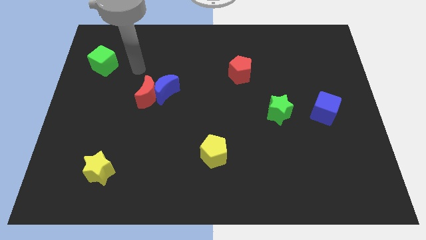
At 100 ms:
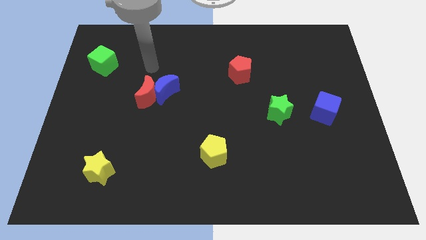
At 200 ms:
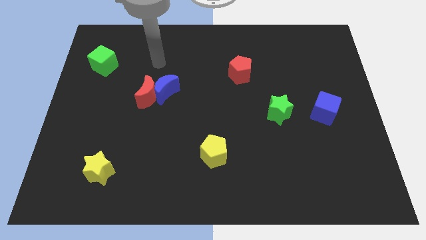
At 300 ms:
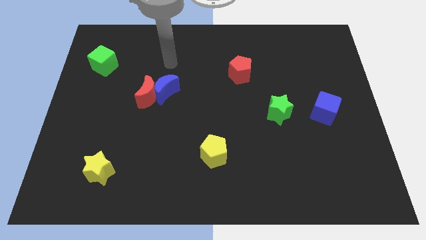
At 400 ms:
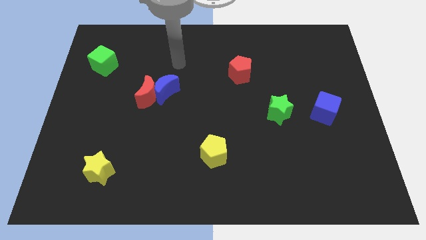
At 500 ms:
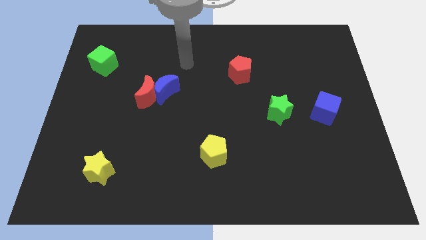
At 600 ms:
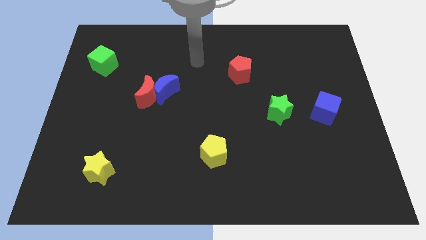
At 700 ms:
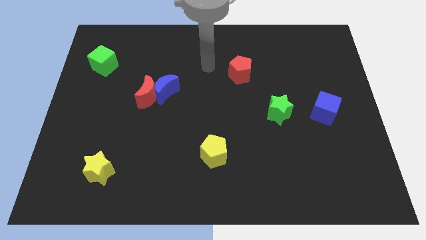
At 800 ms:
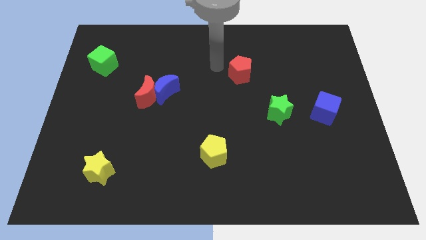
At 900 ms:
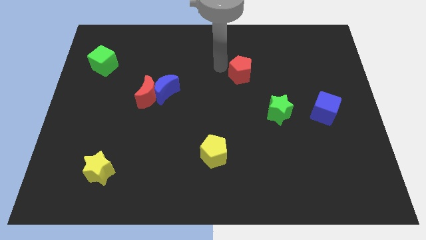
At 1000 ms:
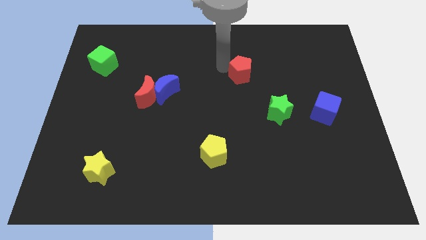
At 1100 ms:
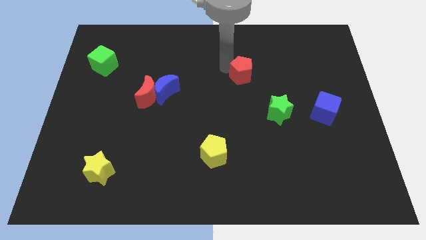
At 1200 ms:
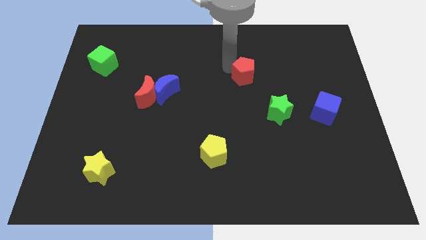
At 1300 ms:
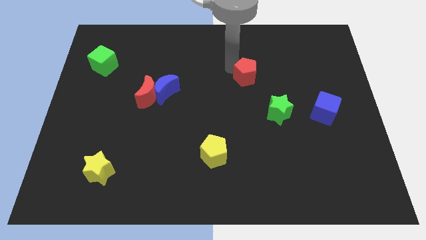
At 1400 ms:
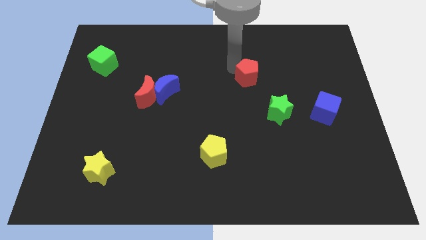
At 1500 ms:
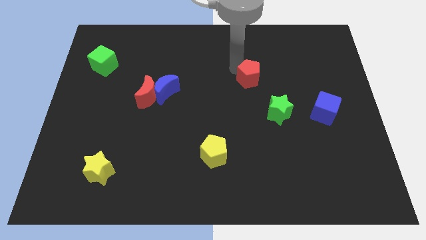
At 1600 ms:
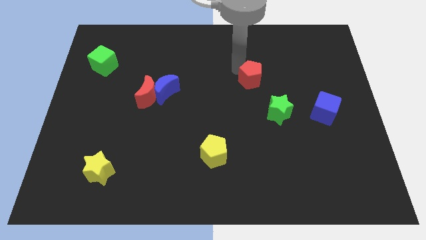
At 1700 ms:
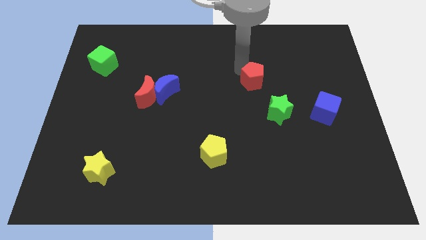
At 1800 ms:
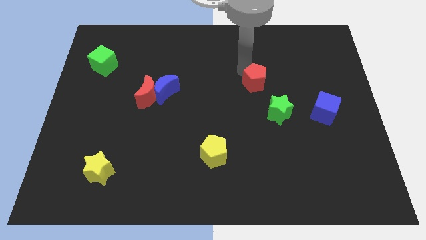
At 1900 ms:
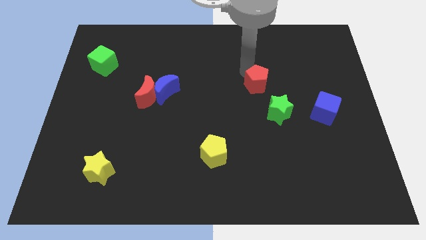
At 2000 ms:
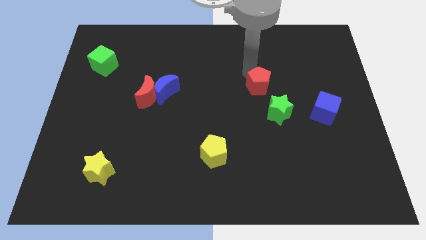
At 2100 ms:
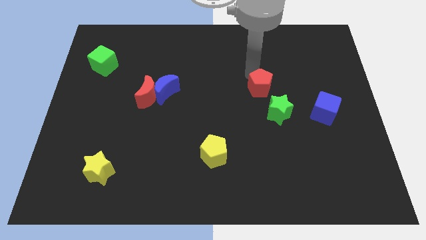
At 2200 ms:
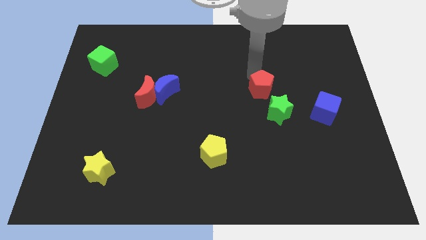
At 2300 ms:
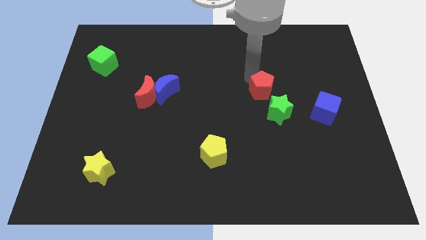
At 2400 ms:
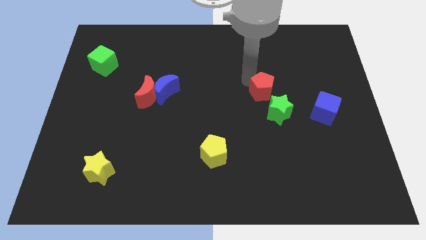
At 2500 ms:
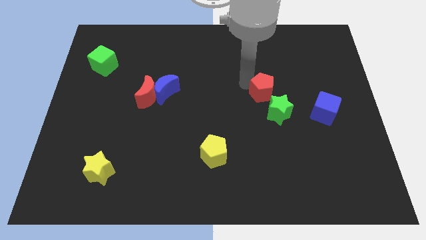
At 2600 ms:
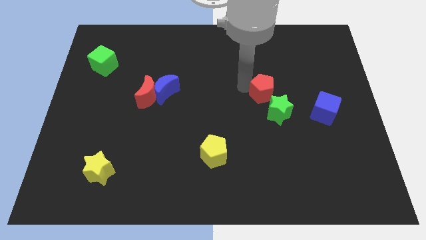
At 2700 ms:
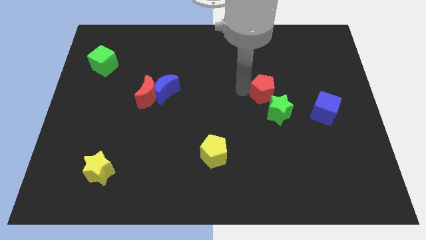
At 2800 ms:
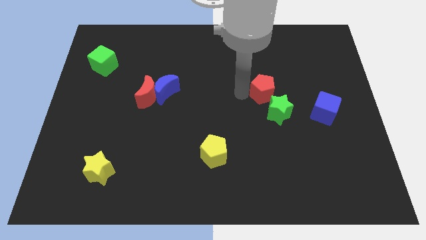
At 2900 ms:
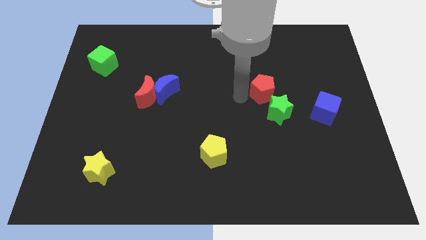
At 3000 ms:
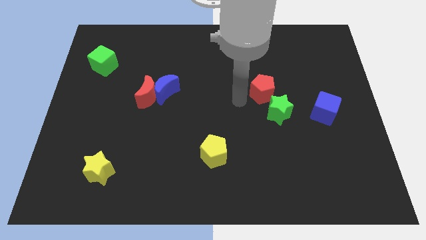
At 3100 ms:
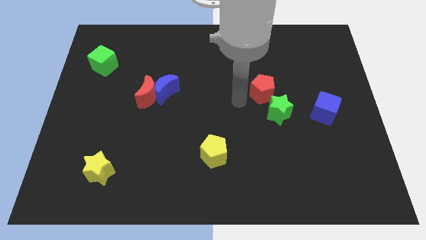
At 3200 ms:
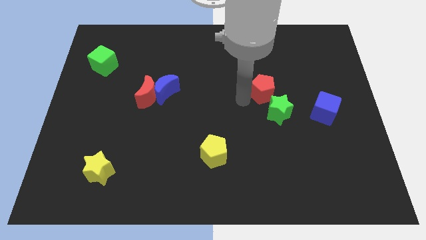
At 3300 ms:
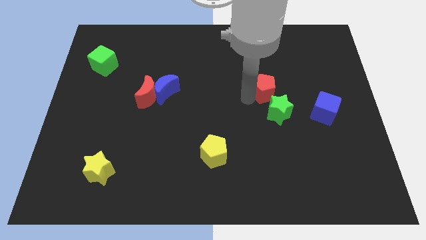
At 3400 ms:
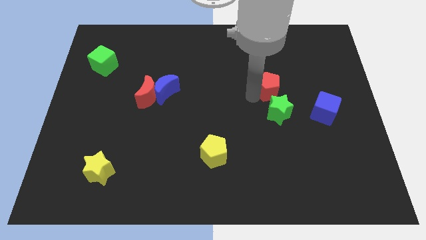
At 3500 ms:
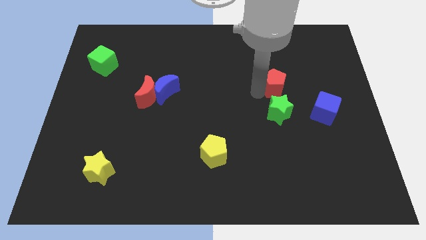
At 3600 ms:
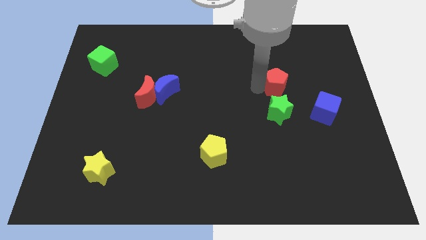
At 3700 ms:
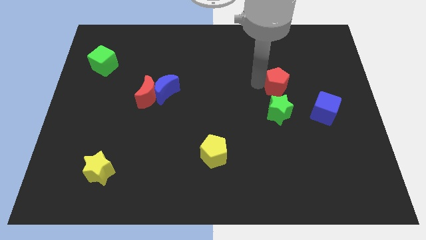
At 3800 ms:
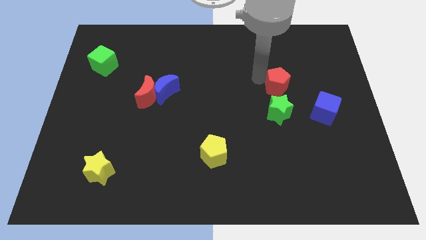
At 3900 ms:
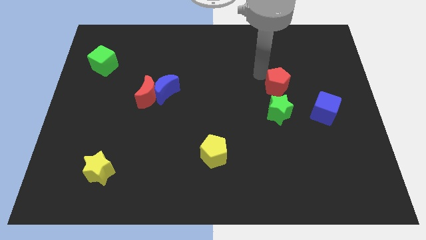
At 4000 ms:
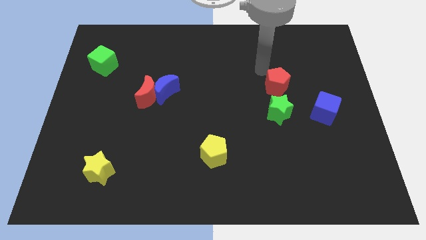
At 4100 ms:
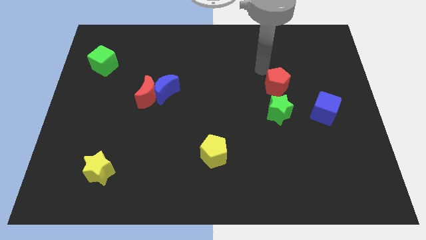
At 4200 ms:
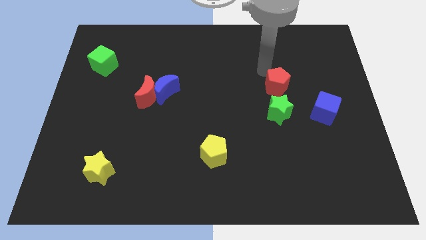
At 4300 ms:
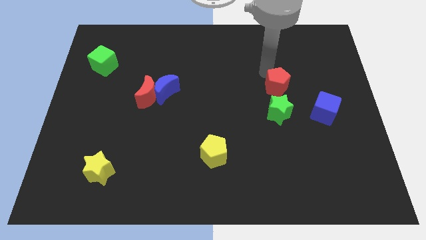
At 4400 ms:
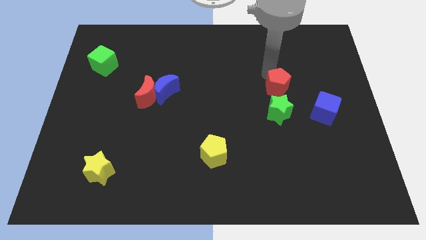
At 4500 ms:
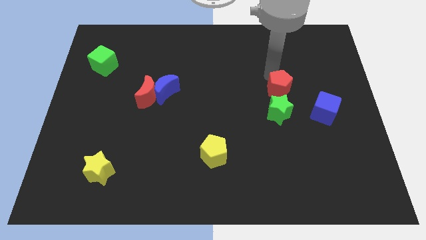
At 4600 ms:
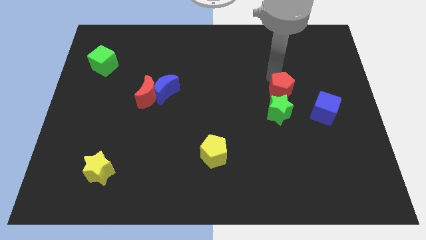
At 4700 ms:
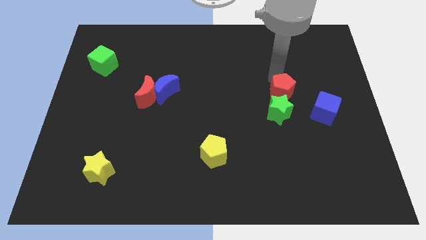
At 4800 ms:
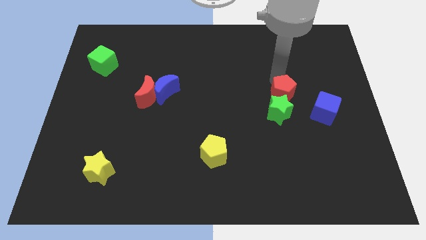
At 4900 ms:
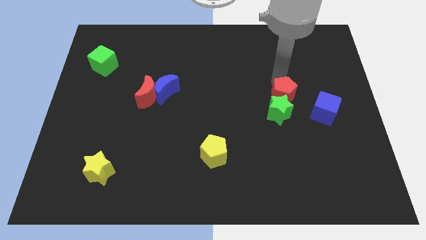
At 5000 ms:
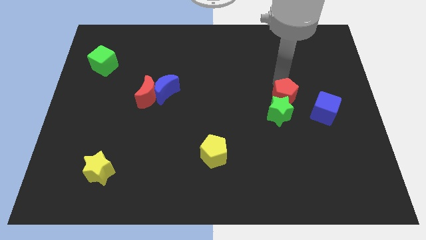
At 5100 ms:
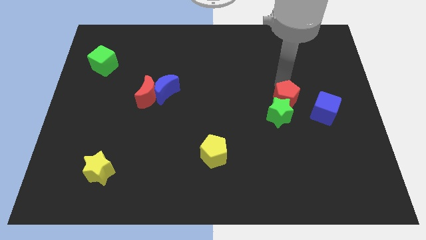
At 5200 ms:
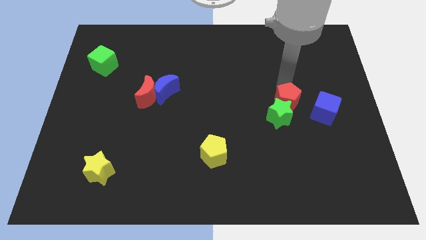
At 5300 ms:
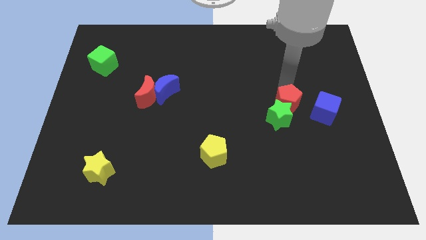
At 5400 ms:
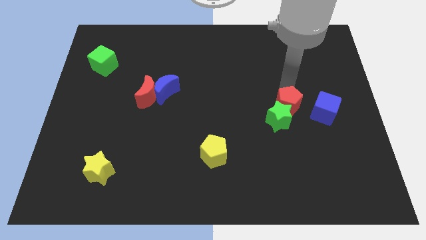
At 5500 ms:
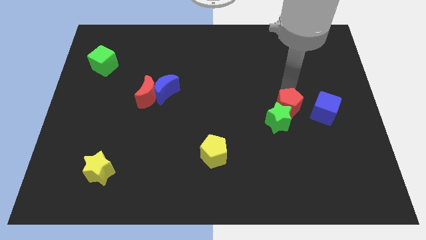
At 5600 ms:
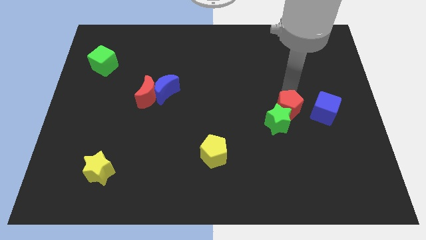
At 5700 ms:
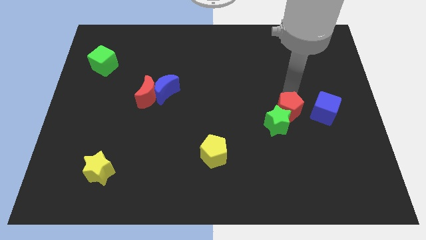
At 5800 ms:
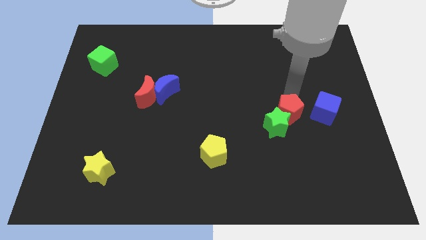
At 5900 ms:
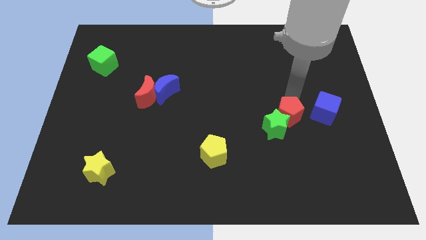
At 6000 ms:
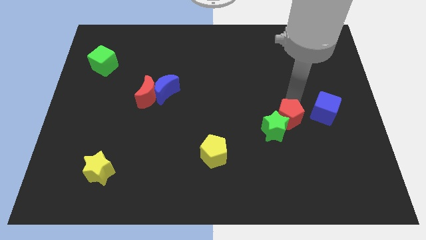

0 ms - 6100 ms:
move the red pentagon to the bottom left side of the blue cube

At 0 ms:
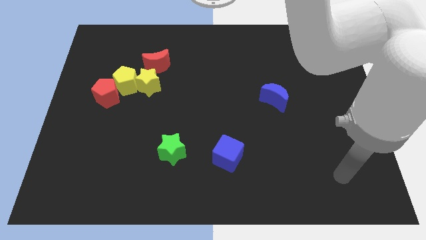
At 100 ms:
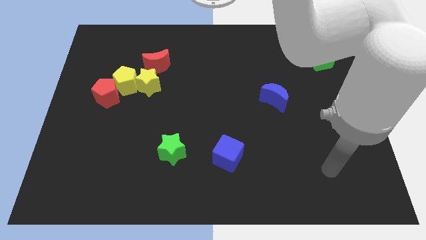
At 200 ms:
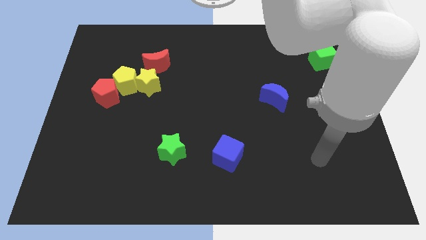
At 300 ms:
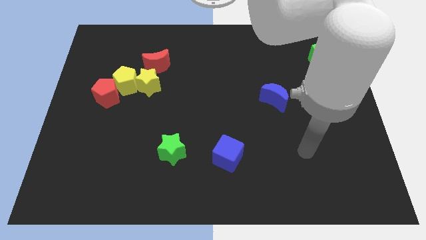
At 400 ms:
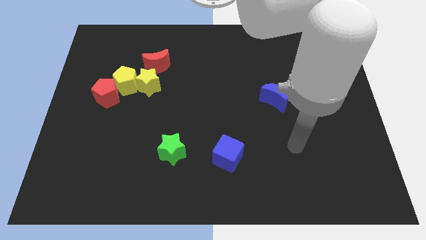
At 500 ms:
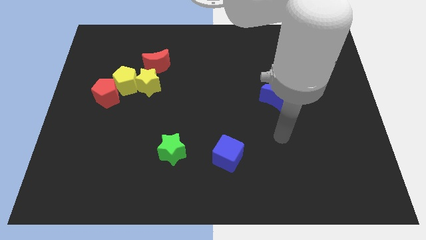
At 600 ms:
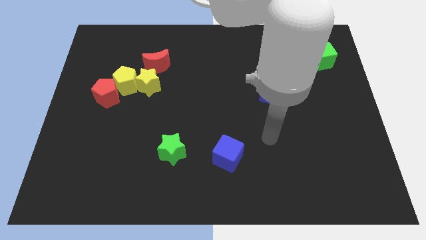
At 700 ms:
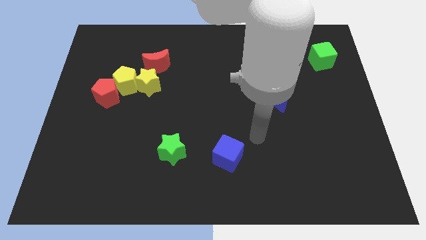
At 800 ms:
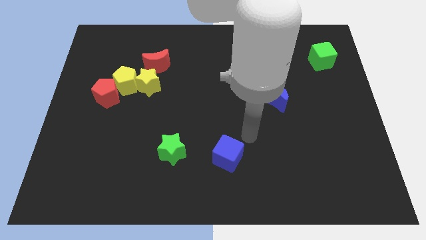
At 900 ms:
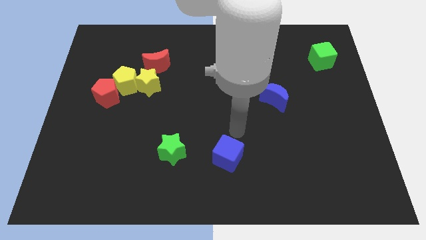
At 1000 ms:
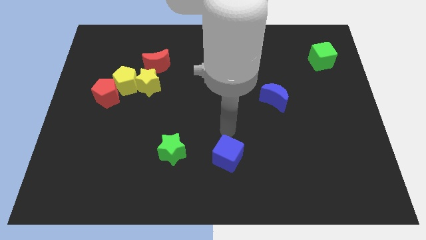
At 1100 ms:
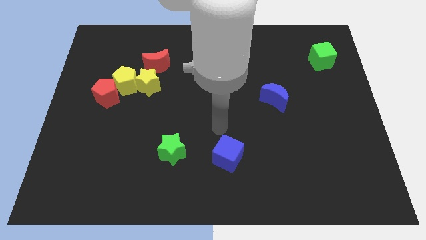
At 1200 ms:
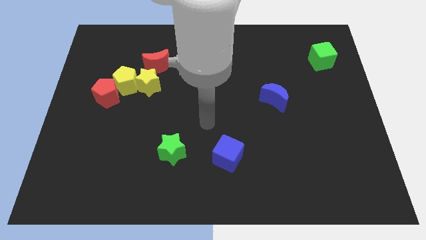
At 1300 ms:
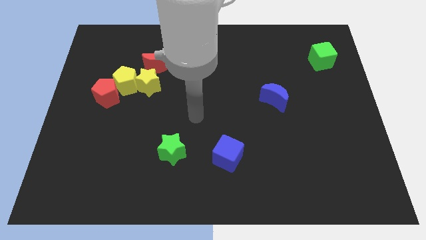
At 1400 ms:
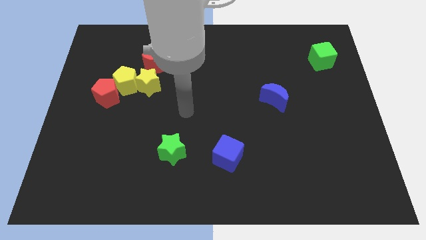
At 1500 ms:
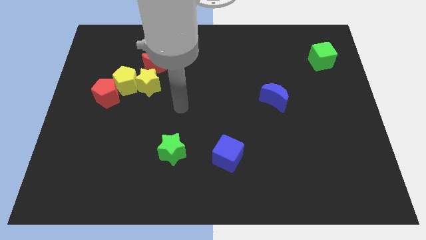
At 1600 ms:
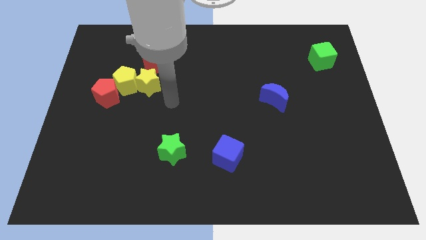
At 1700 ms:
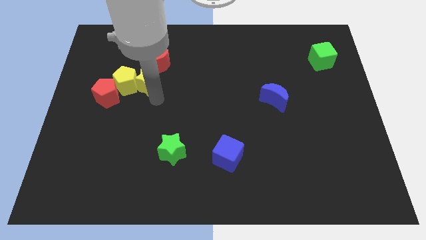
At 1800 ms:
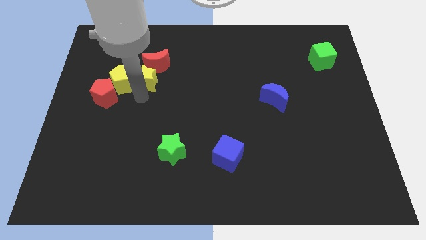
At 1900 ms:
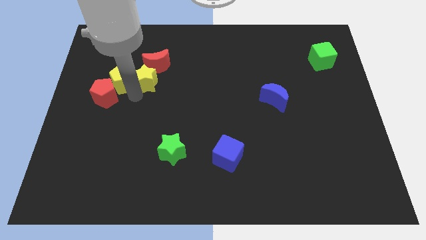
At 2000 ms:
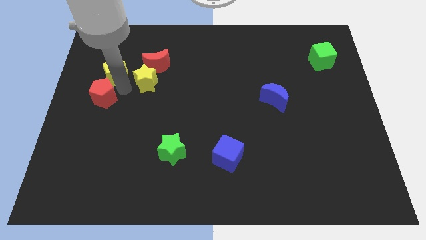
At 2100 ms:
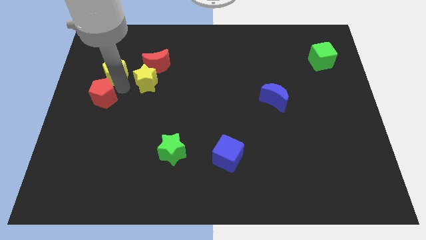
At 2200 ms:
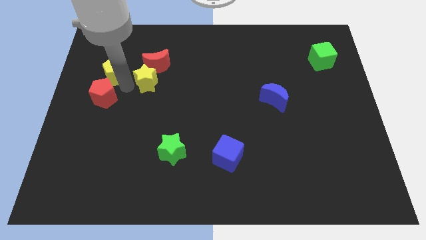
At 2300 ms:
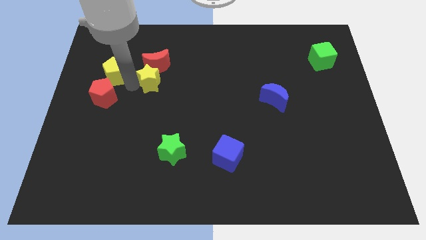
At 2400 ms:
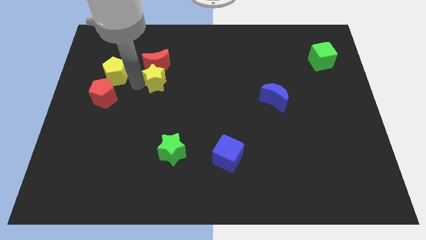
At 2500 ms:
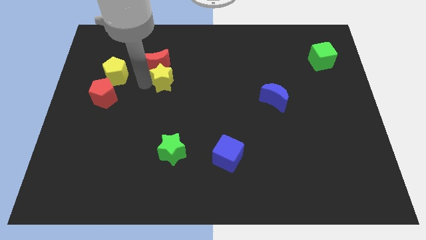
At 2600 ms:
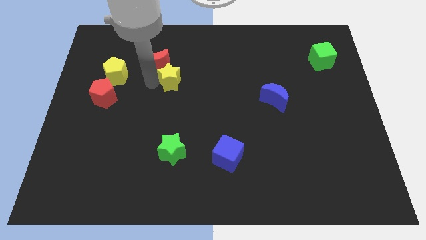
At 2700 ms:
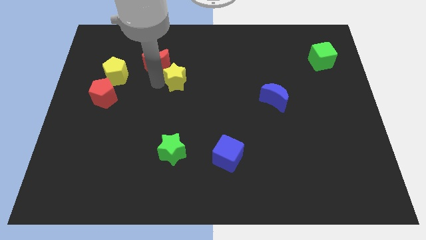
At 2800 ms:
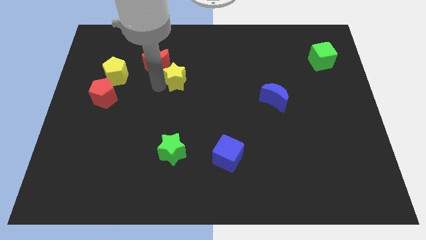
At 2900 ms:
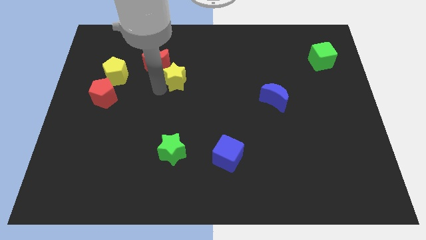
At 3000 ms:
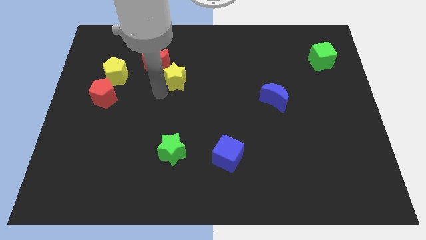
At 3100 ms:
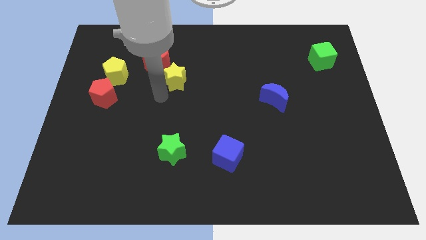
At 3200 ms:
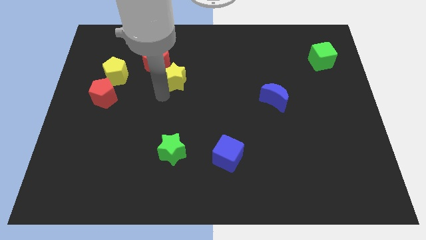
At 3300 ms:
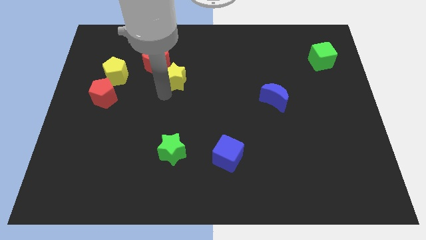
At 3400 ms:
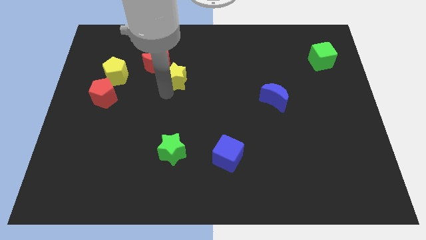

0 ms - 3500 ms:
move the yellow star just right of the red moon
